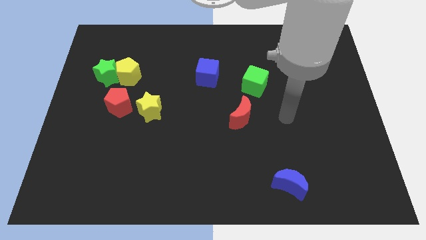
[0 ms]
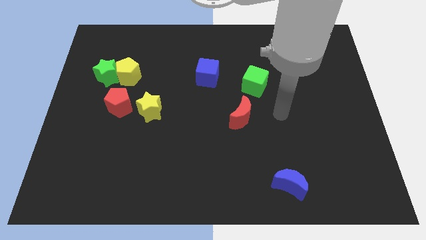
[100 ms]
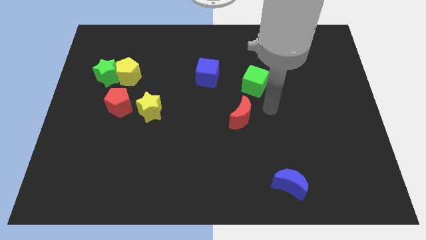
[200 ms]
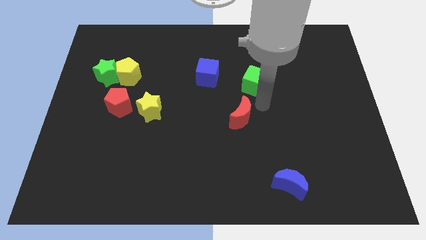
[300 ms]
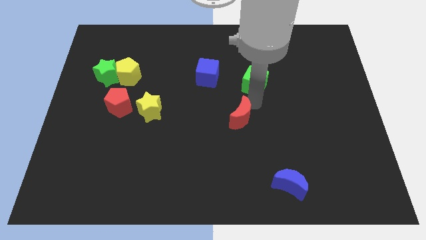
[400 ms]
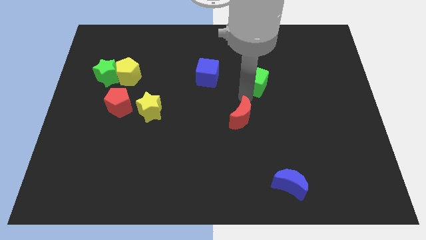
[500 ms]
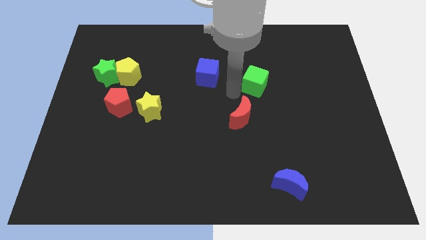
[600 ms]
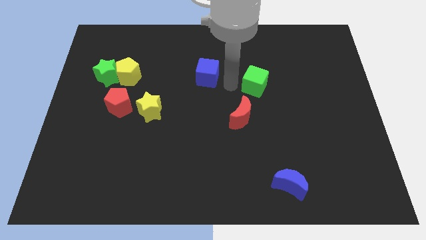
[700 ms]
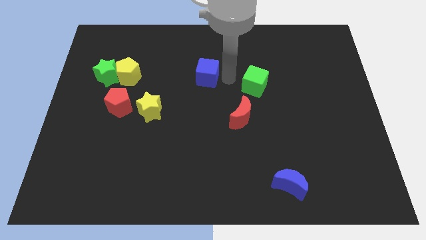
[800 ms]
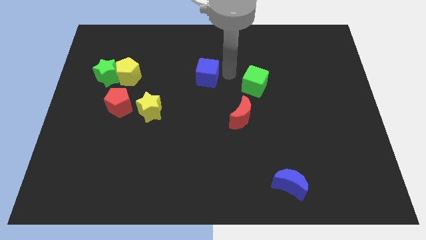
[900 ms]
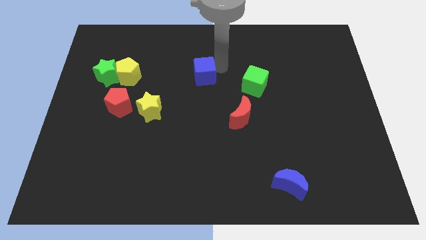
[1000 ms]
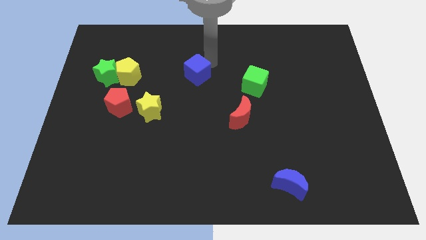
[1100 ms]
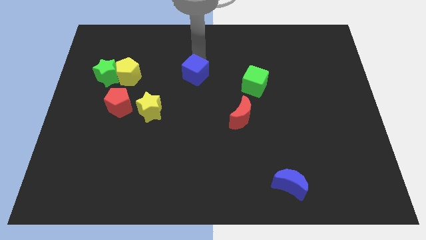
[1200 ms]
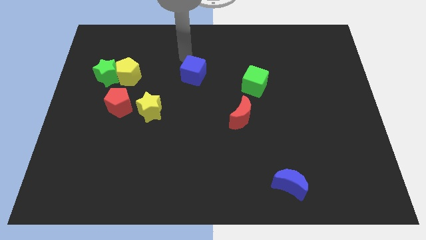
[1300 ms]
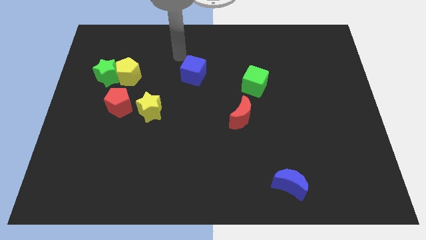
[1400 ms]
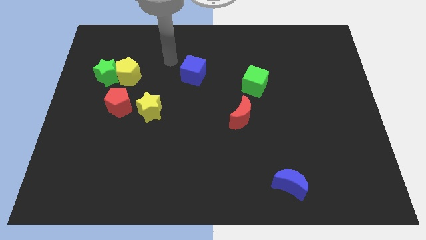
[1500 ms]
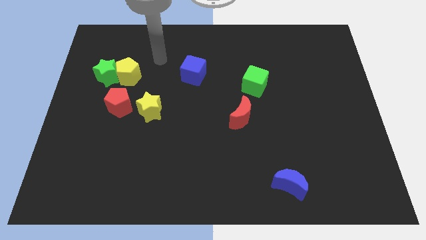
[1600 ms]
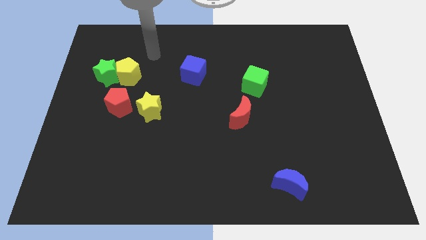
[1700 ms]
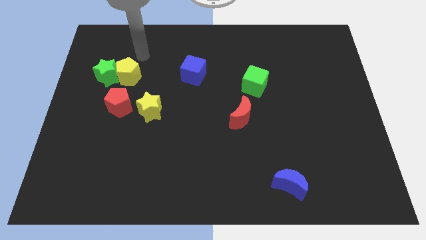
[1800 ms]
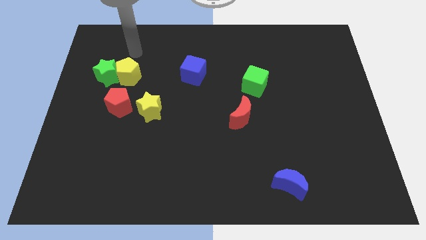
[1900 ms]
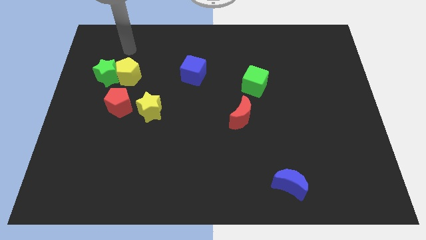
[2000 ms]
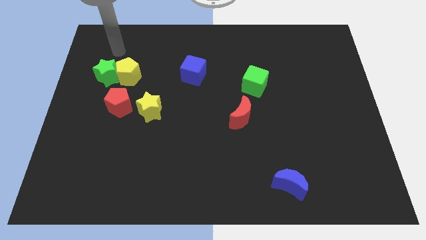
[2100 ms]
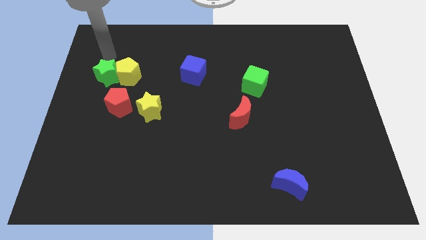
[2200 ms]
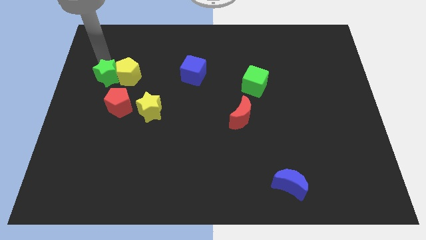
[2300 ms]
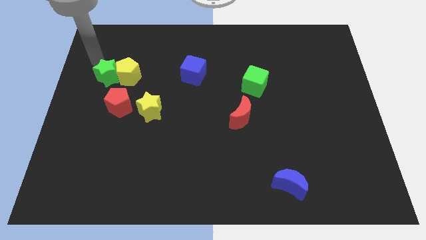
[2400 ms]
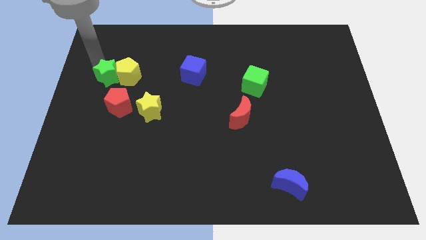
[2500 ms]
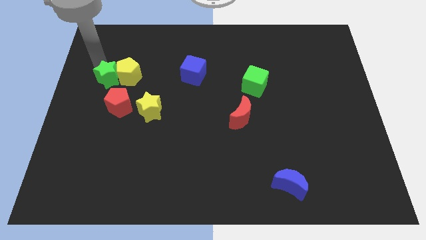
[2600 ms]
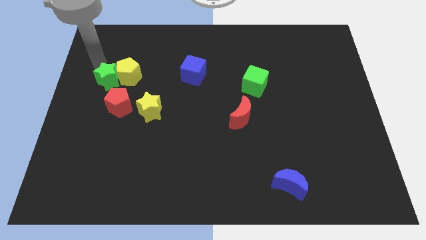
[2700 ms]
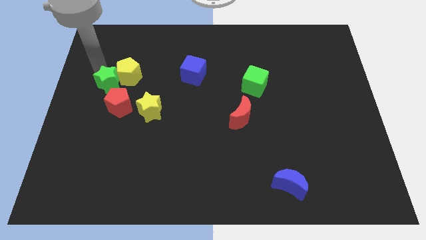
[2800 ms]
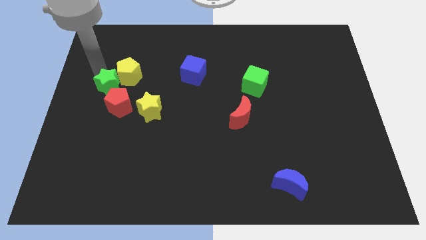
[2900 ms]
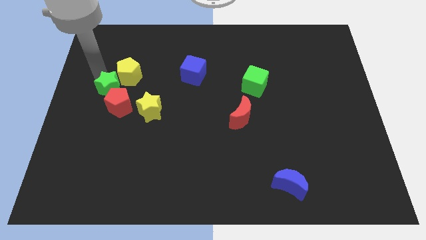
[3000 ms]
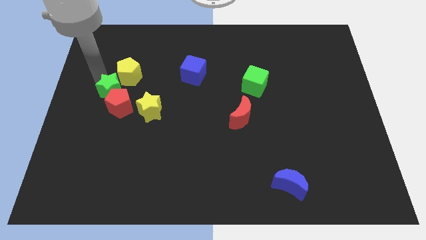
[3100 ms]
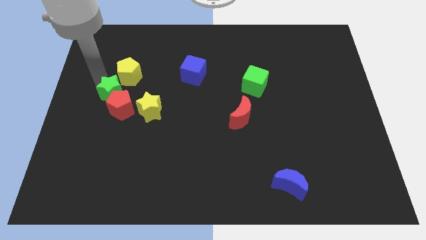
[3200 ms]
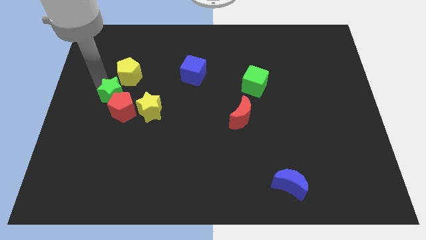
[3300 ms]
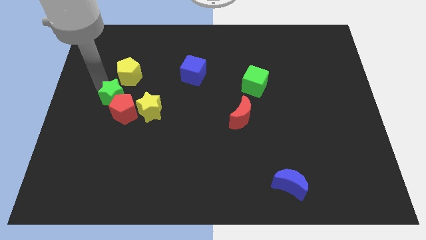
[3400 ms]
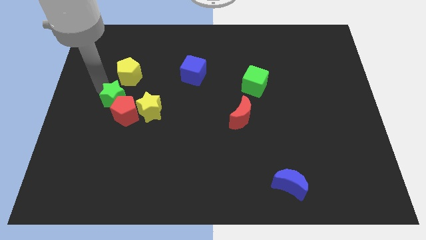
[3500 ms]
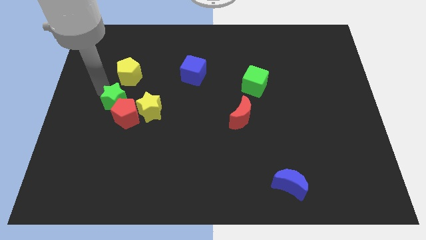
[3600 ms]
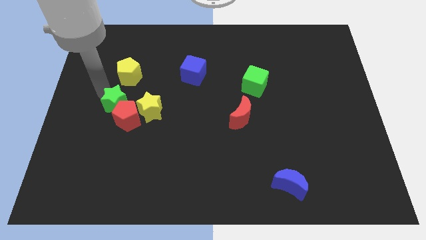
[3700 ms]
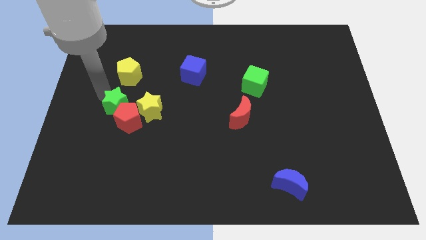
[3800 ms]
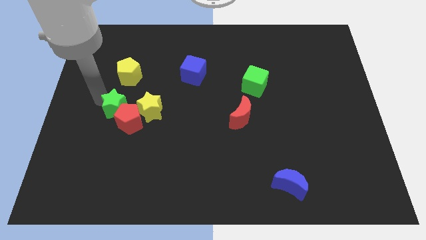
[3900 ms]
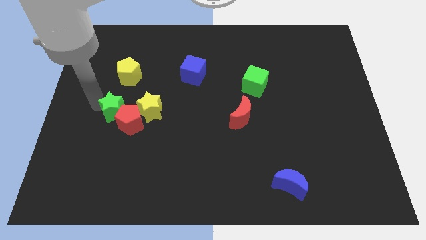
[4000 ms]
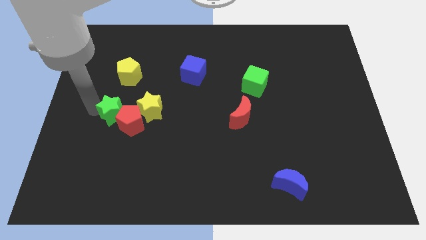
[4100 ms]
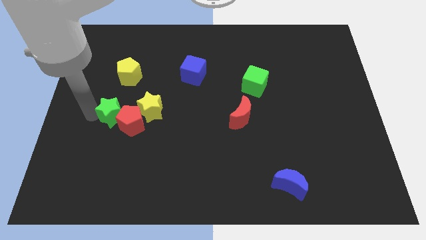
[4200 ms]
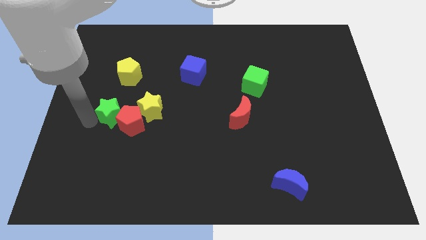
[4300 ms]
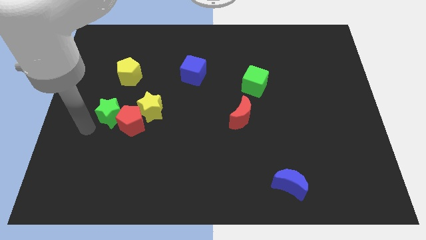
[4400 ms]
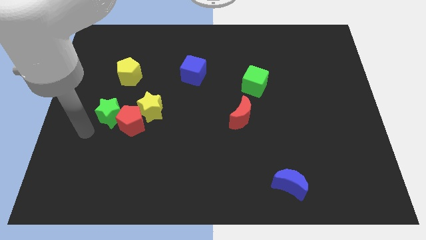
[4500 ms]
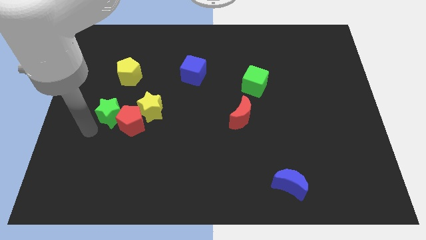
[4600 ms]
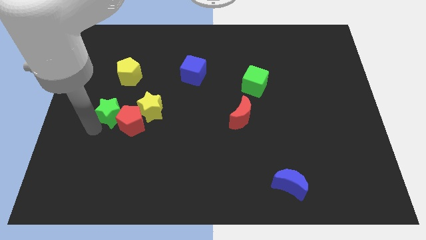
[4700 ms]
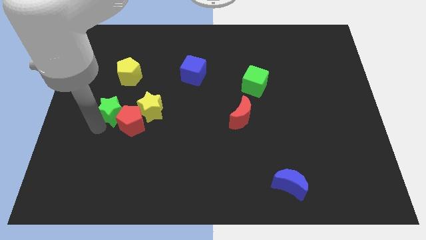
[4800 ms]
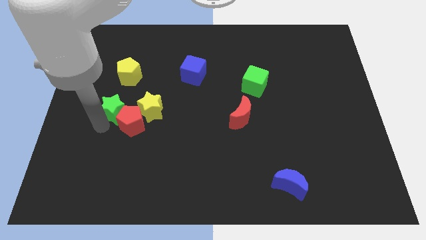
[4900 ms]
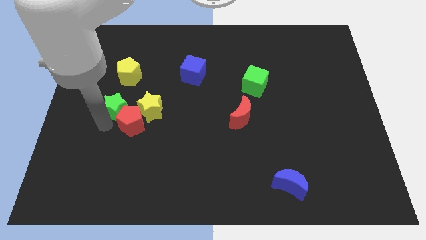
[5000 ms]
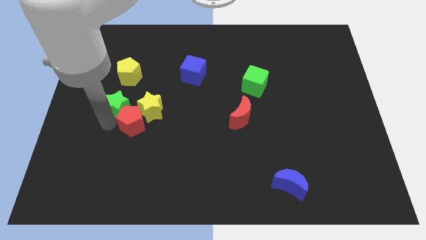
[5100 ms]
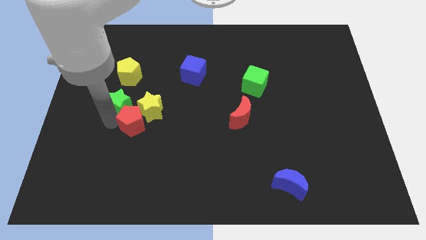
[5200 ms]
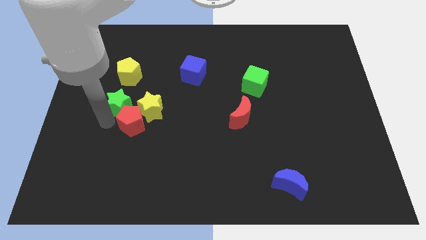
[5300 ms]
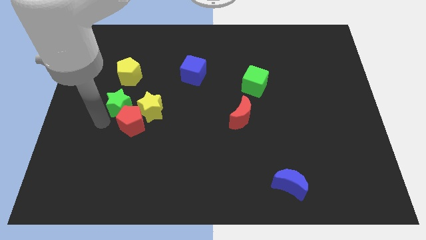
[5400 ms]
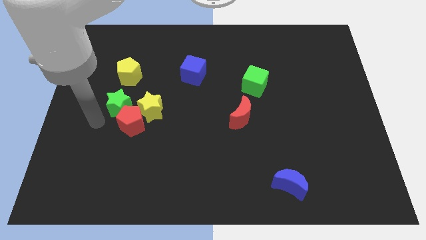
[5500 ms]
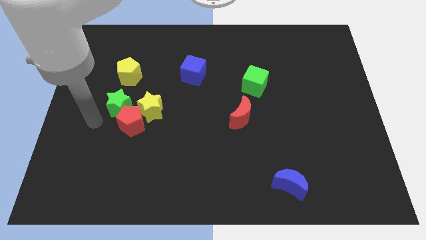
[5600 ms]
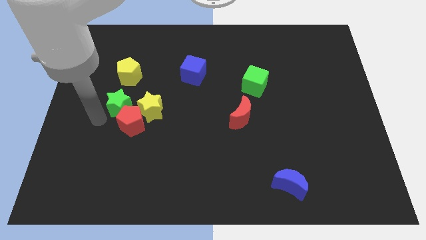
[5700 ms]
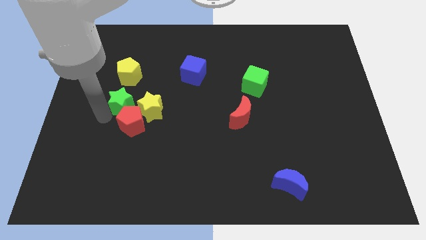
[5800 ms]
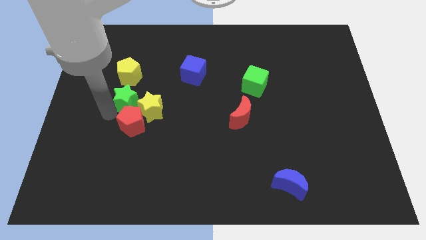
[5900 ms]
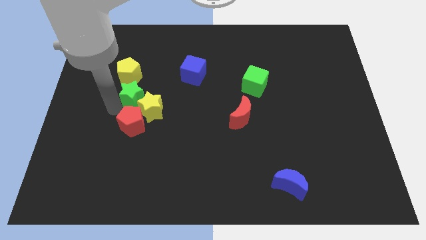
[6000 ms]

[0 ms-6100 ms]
slide the green star close to the yellow star

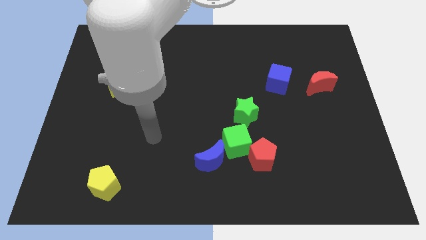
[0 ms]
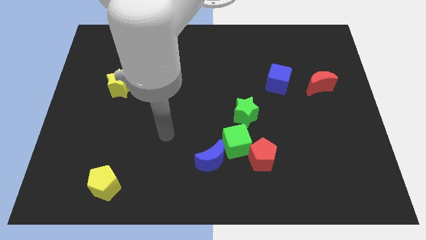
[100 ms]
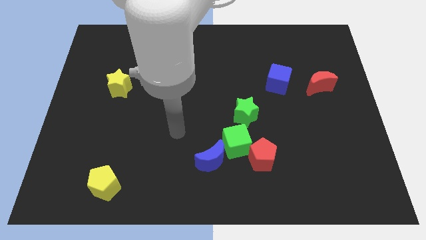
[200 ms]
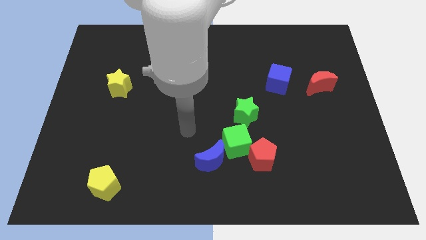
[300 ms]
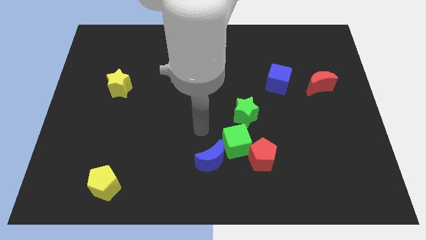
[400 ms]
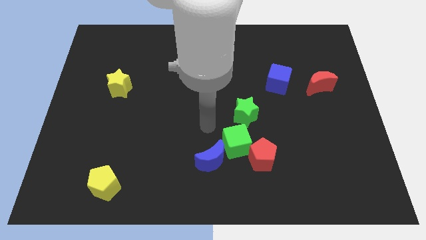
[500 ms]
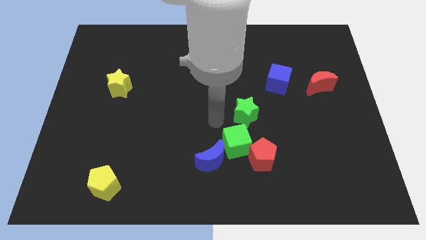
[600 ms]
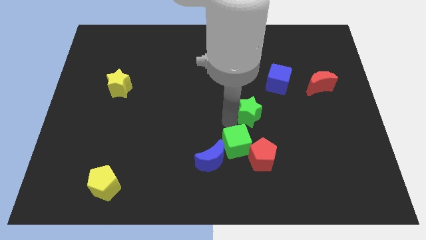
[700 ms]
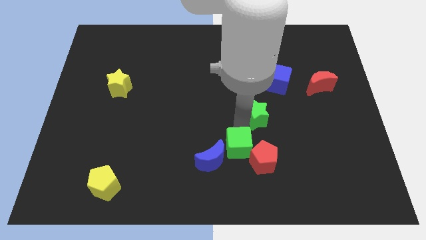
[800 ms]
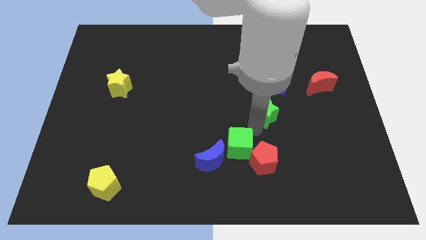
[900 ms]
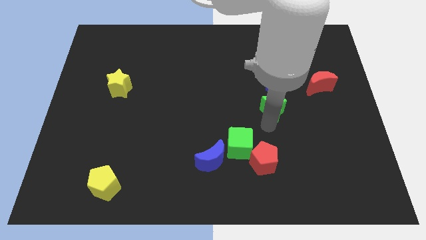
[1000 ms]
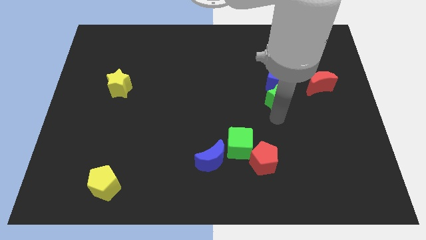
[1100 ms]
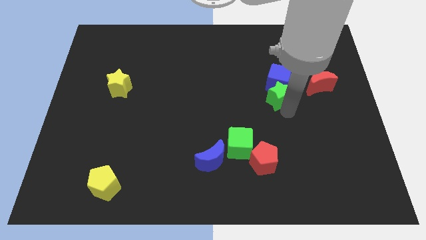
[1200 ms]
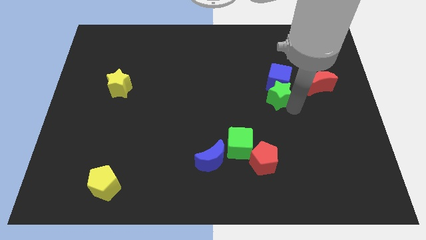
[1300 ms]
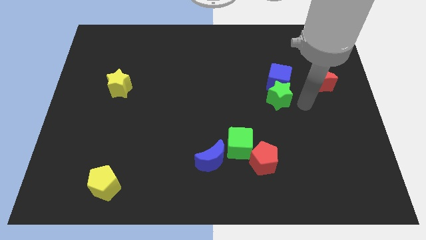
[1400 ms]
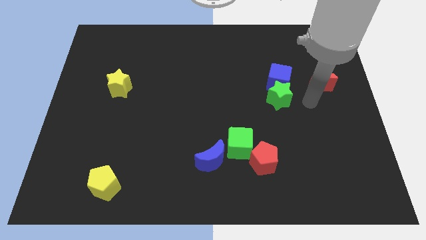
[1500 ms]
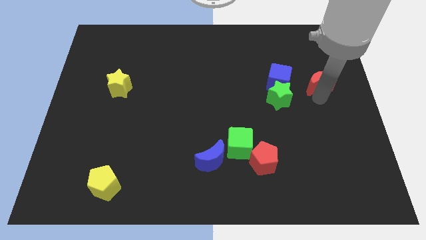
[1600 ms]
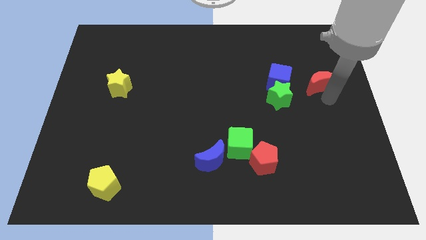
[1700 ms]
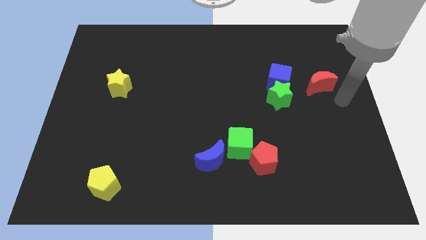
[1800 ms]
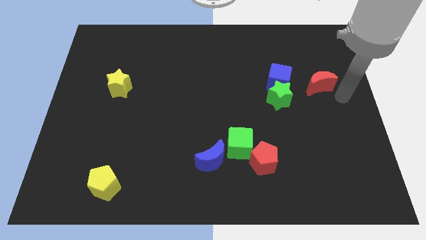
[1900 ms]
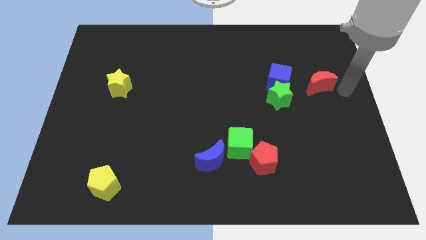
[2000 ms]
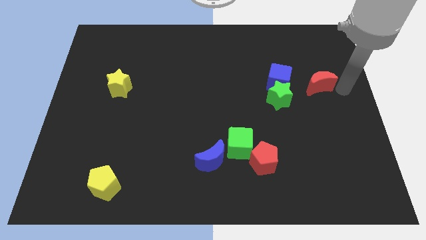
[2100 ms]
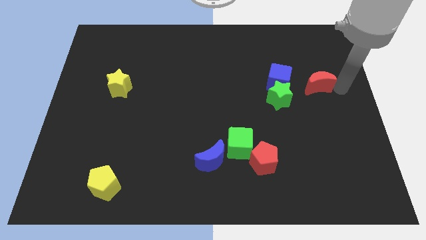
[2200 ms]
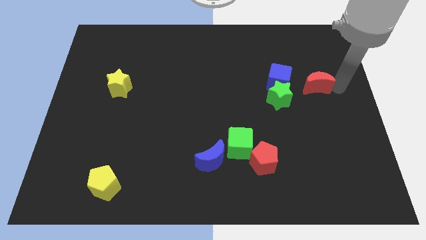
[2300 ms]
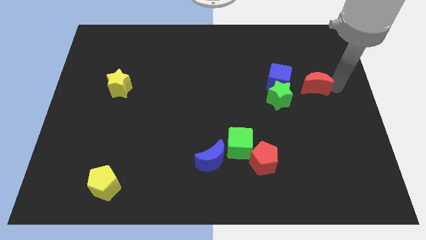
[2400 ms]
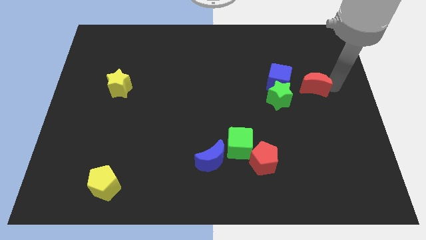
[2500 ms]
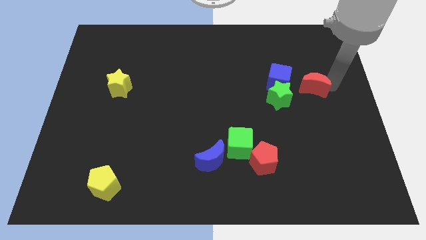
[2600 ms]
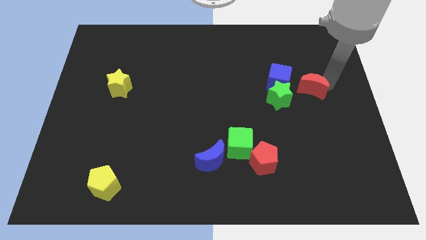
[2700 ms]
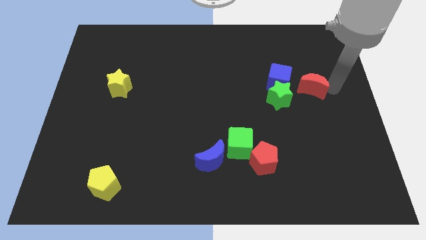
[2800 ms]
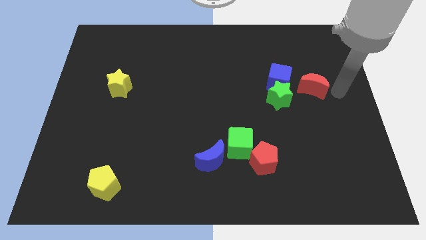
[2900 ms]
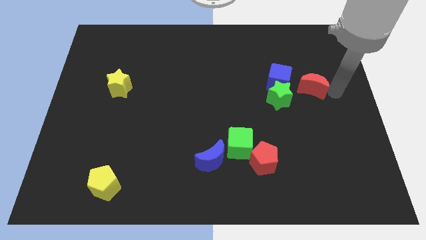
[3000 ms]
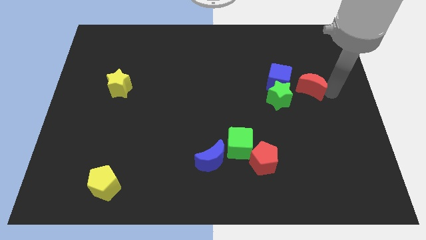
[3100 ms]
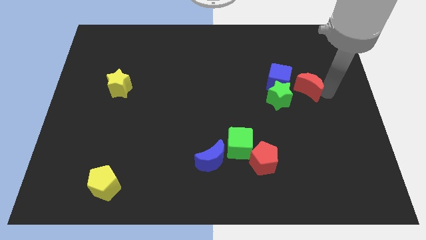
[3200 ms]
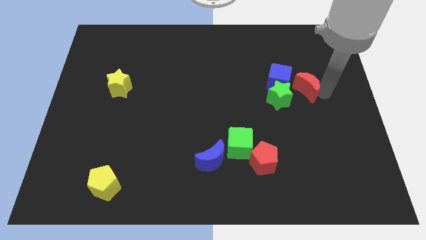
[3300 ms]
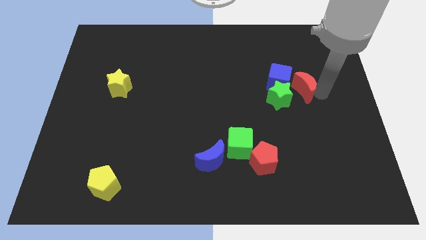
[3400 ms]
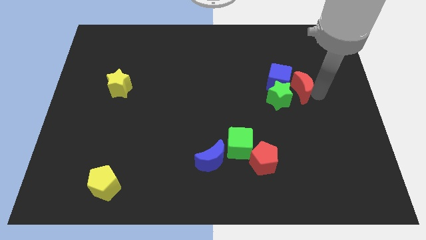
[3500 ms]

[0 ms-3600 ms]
slide the red moon to the blue cube
